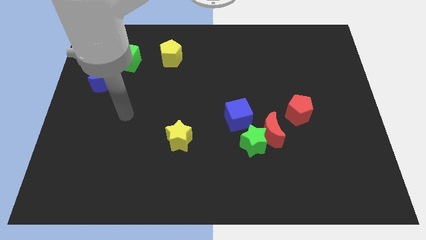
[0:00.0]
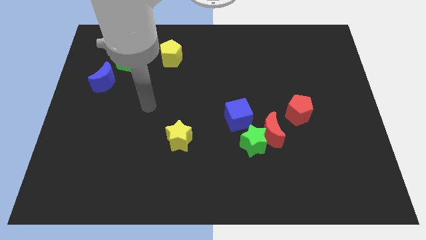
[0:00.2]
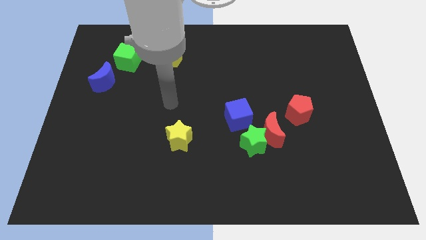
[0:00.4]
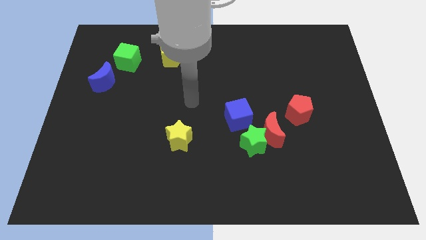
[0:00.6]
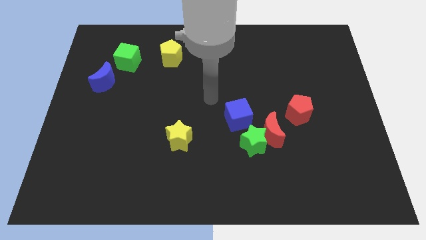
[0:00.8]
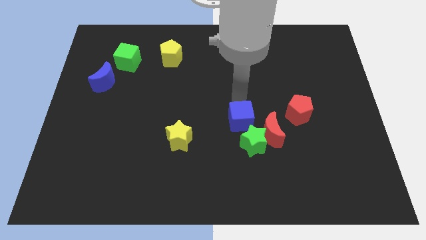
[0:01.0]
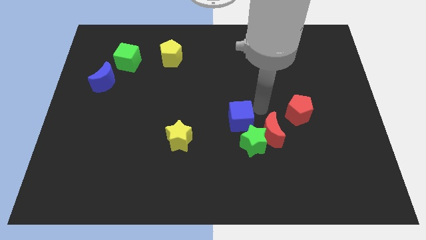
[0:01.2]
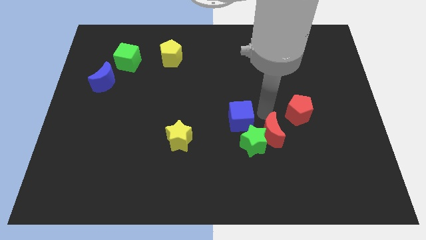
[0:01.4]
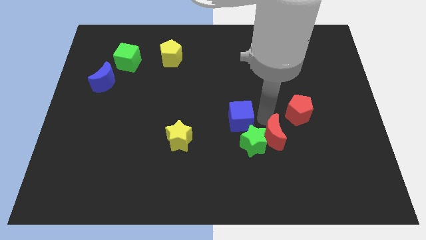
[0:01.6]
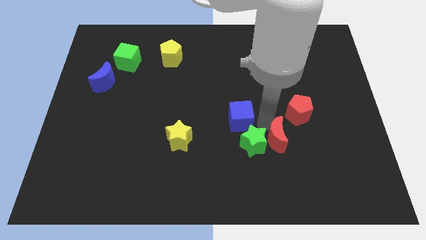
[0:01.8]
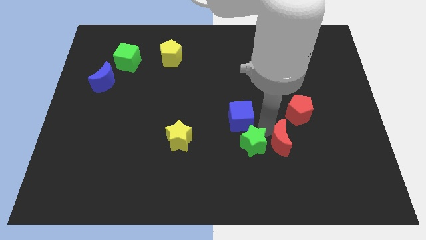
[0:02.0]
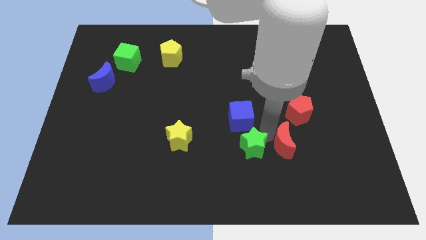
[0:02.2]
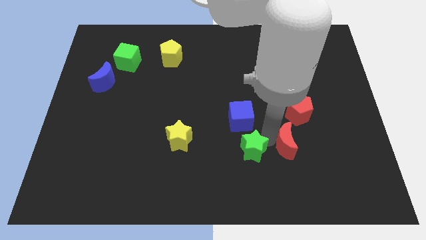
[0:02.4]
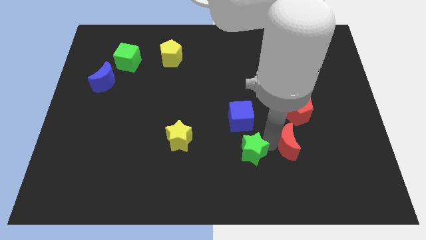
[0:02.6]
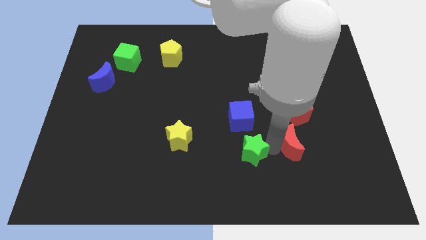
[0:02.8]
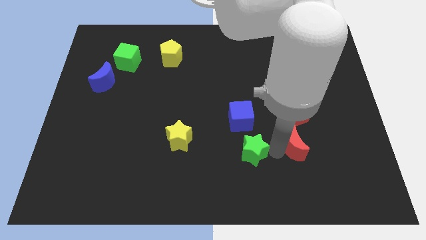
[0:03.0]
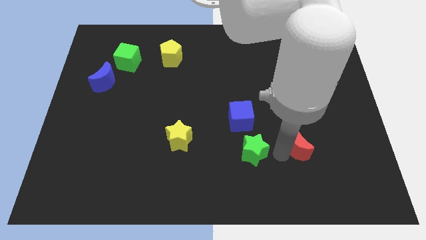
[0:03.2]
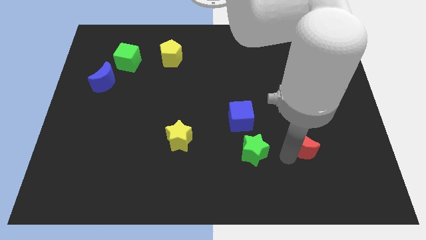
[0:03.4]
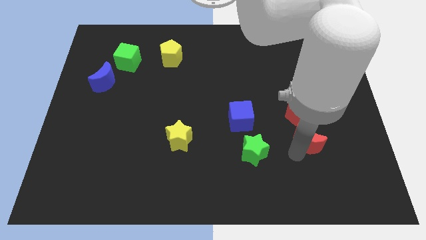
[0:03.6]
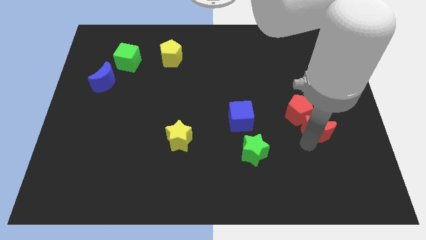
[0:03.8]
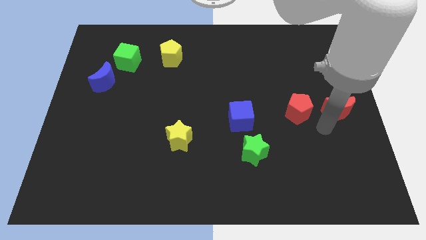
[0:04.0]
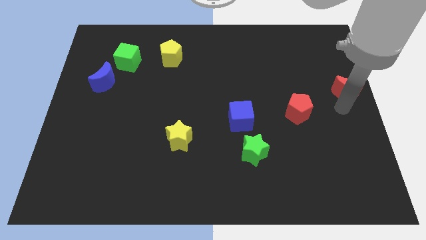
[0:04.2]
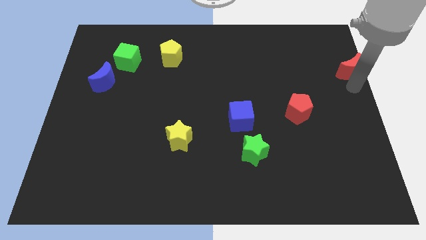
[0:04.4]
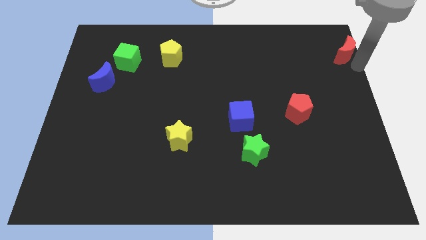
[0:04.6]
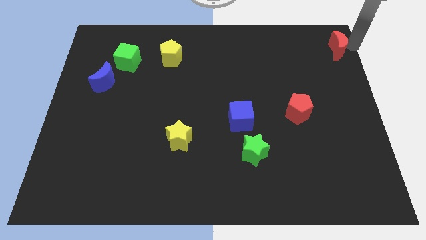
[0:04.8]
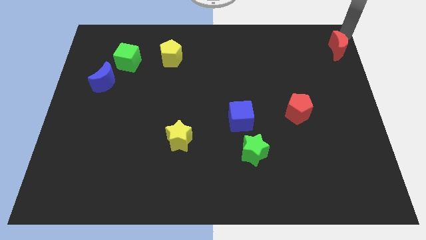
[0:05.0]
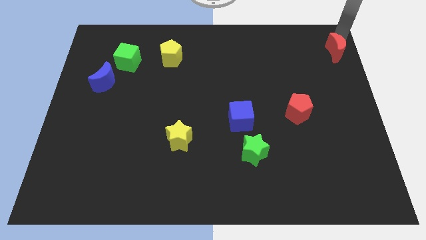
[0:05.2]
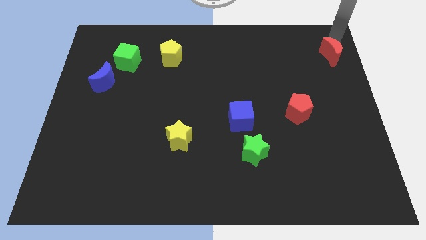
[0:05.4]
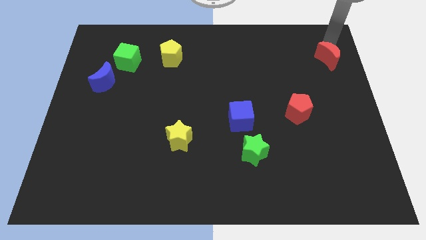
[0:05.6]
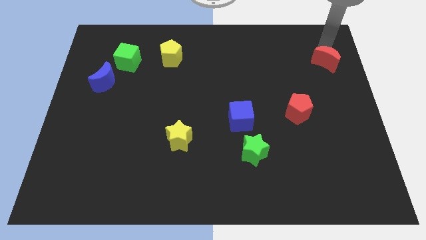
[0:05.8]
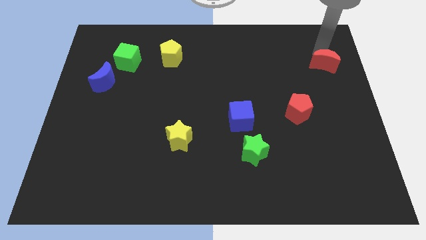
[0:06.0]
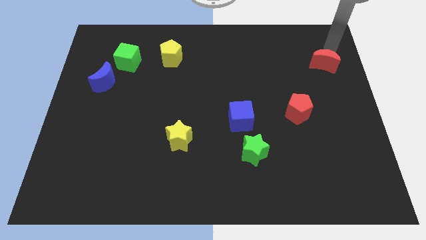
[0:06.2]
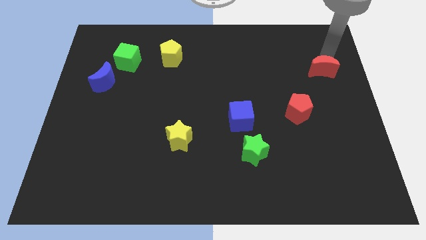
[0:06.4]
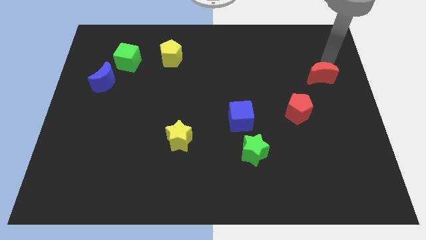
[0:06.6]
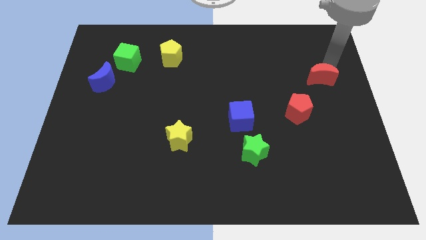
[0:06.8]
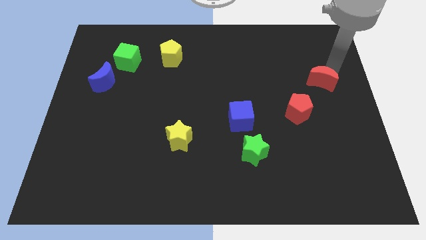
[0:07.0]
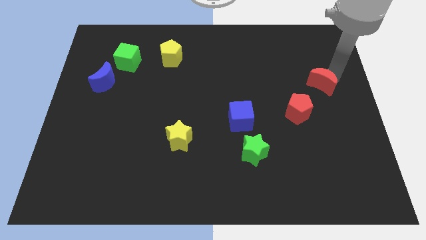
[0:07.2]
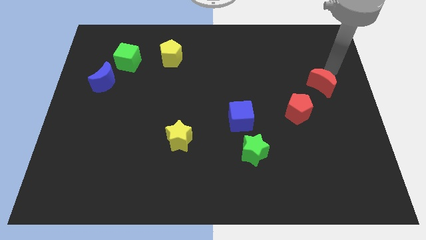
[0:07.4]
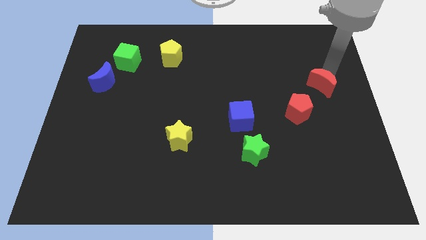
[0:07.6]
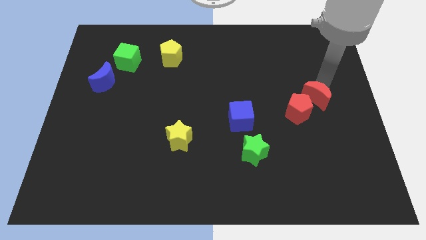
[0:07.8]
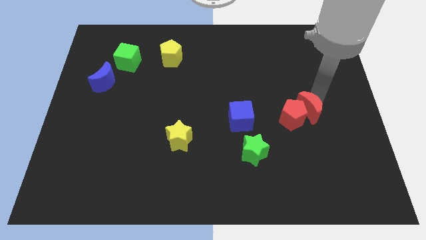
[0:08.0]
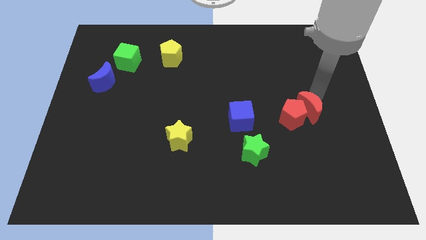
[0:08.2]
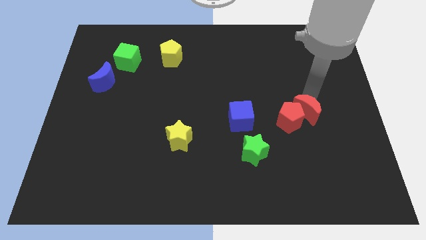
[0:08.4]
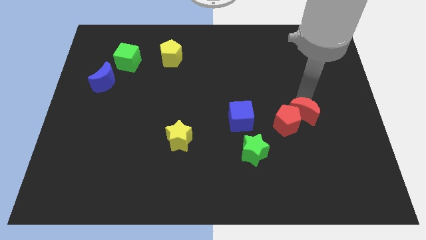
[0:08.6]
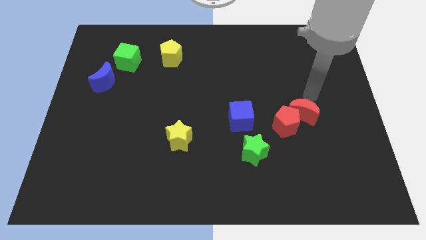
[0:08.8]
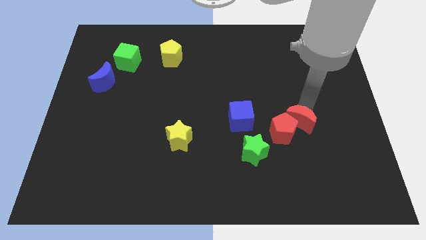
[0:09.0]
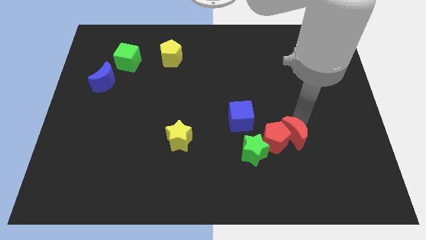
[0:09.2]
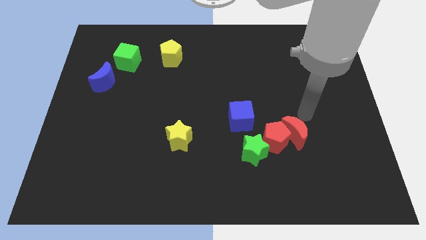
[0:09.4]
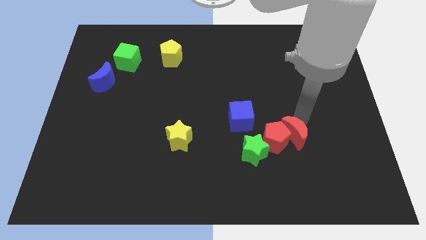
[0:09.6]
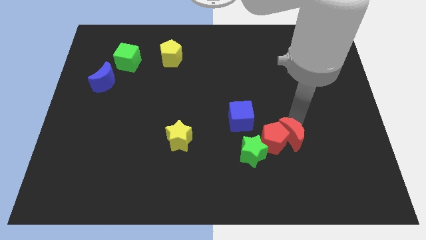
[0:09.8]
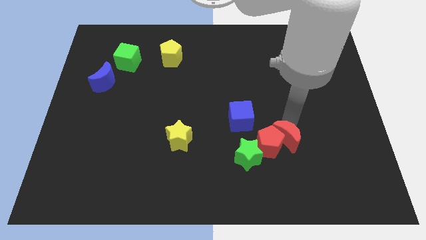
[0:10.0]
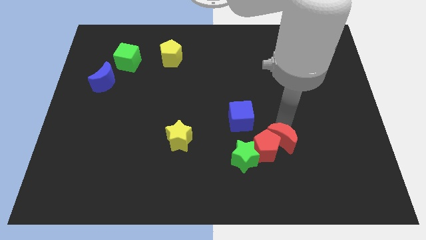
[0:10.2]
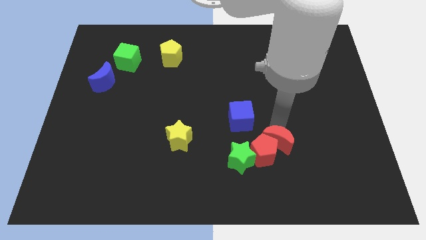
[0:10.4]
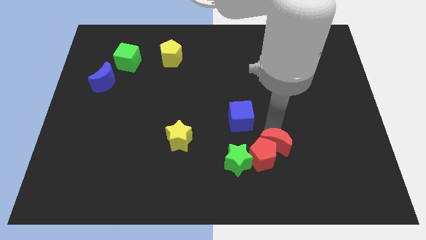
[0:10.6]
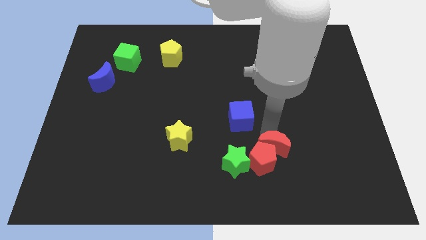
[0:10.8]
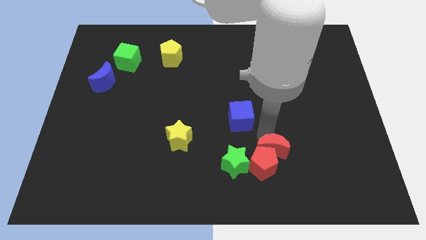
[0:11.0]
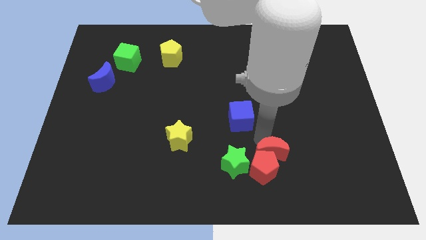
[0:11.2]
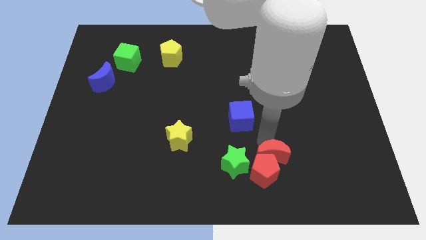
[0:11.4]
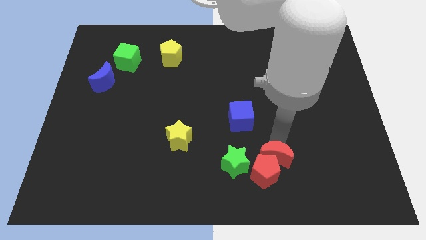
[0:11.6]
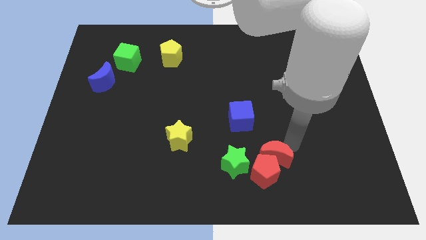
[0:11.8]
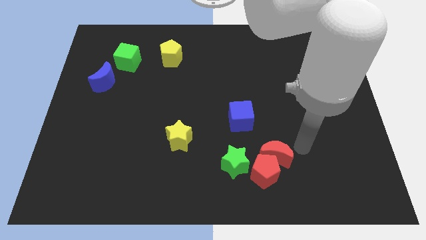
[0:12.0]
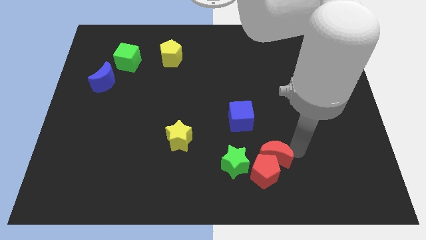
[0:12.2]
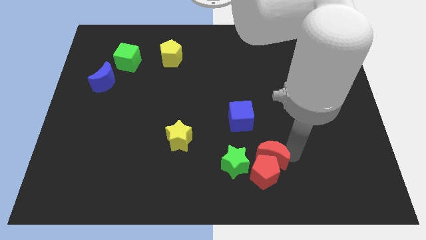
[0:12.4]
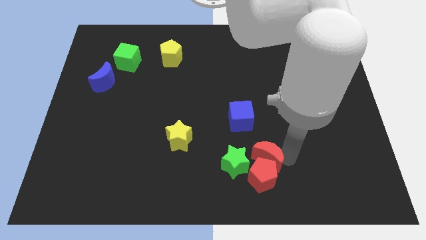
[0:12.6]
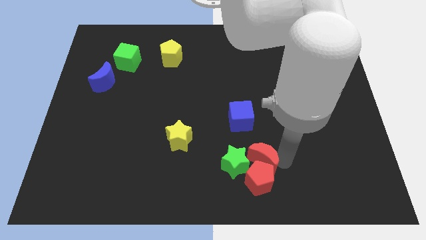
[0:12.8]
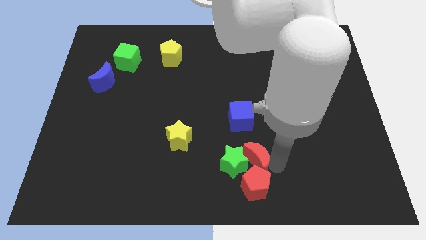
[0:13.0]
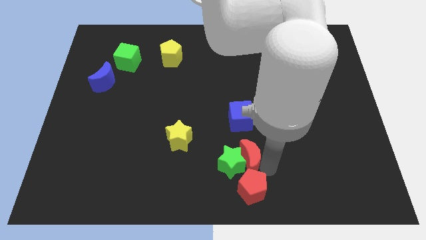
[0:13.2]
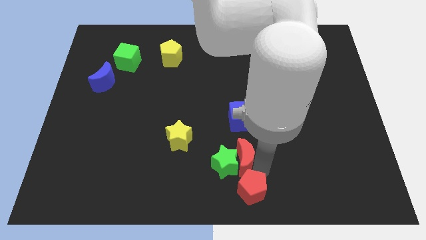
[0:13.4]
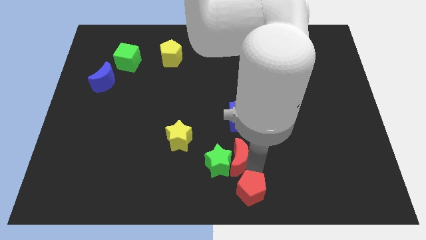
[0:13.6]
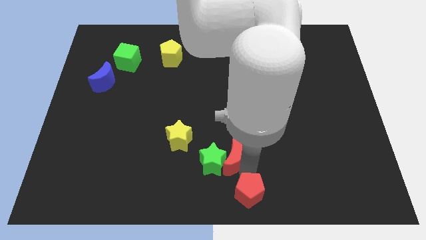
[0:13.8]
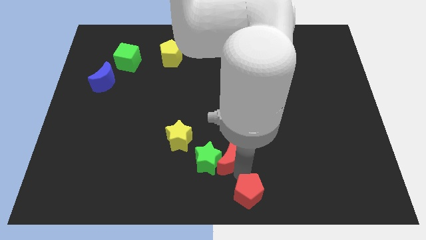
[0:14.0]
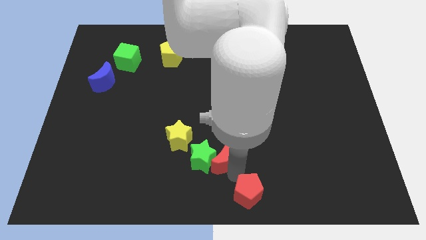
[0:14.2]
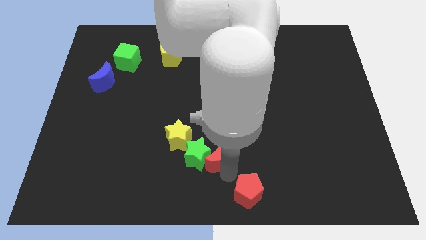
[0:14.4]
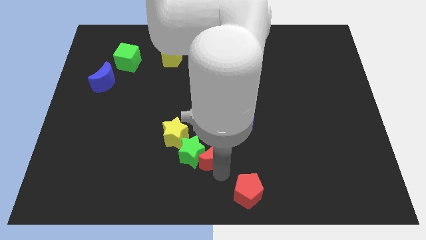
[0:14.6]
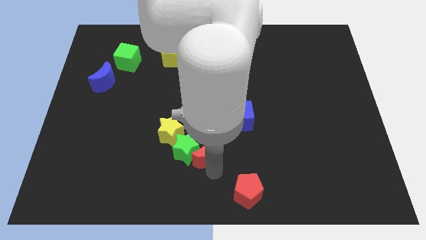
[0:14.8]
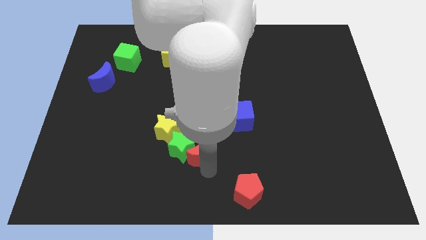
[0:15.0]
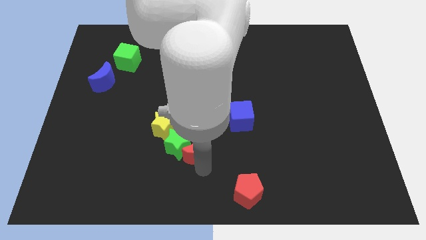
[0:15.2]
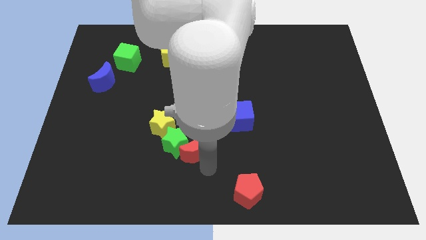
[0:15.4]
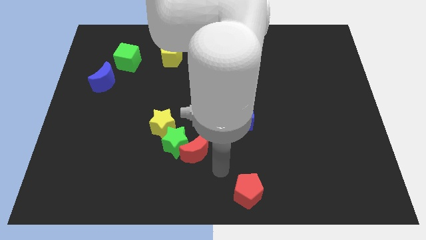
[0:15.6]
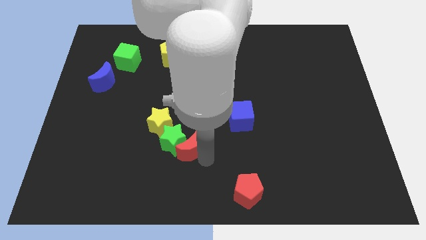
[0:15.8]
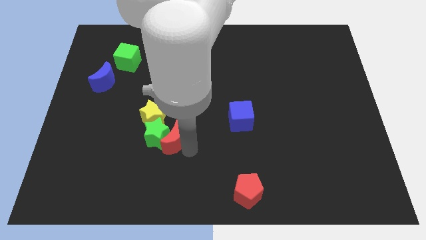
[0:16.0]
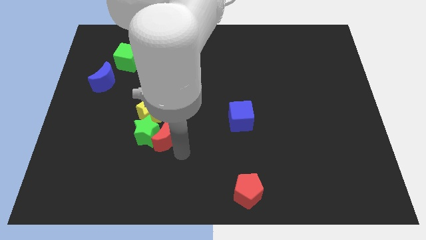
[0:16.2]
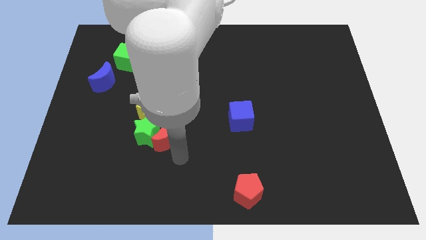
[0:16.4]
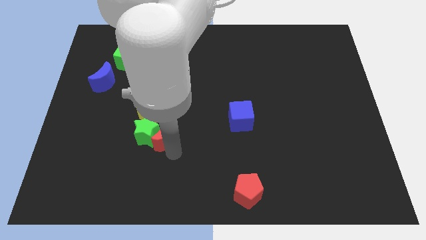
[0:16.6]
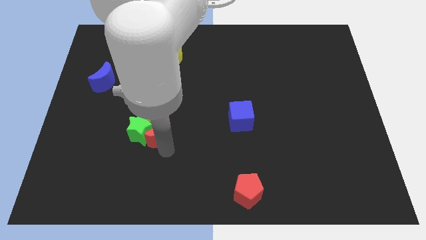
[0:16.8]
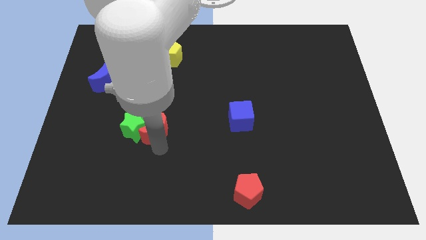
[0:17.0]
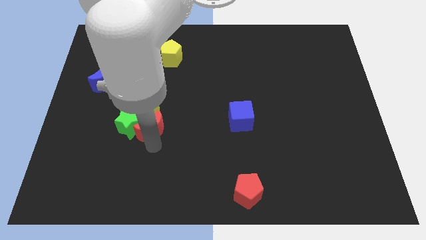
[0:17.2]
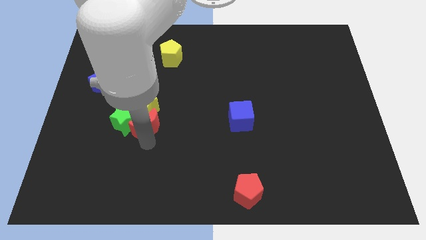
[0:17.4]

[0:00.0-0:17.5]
push the red moon next to the yellow star
